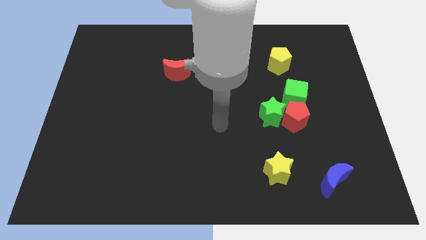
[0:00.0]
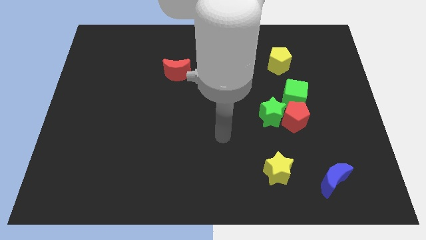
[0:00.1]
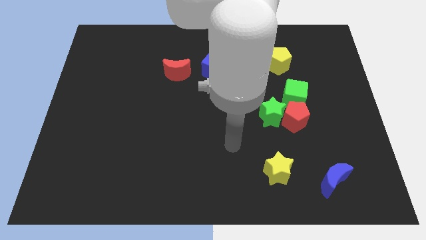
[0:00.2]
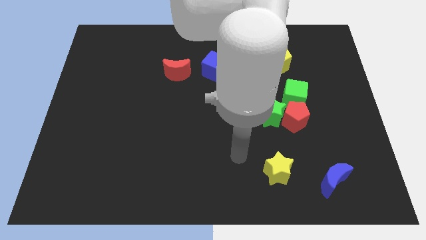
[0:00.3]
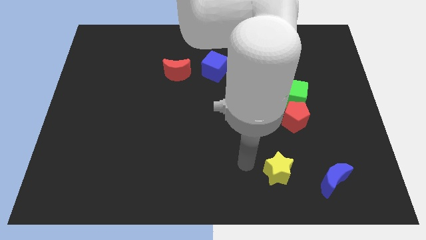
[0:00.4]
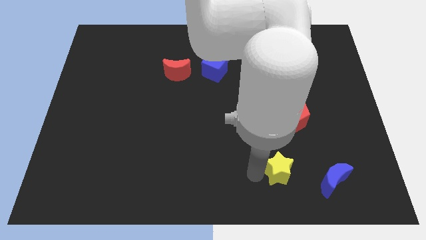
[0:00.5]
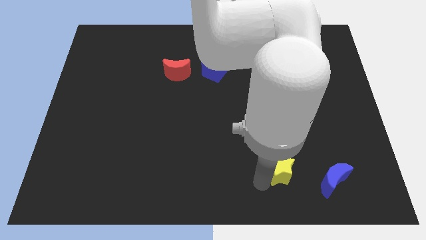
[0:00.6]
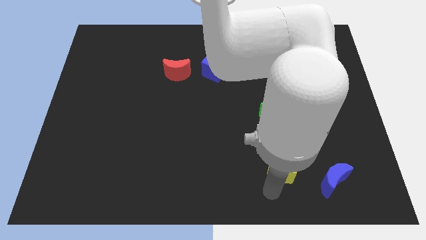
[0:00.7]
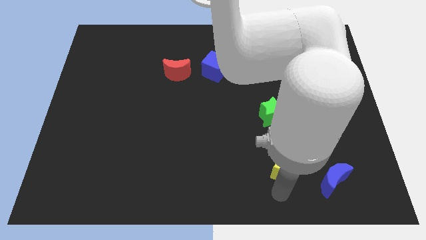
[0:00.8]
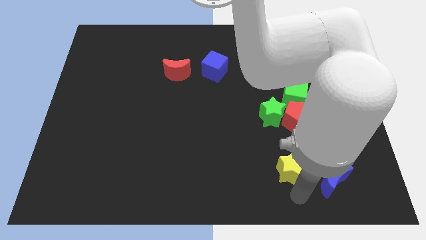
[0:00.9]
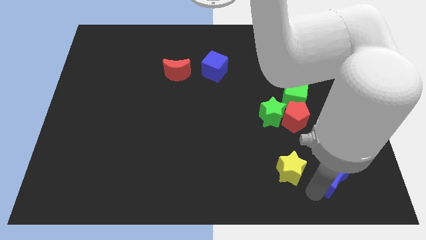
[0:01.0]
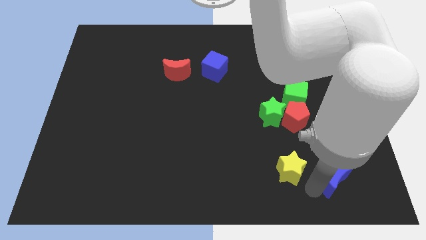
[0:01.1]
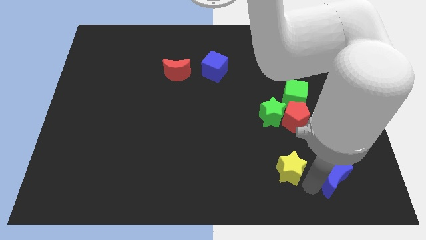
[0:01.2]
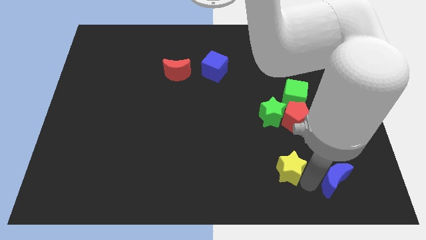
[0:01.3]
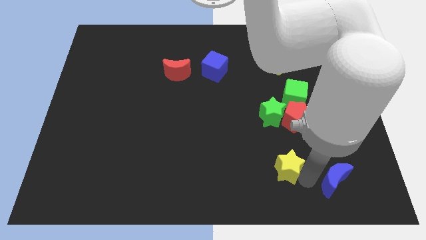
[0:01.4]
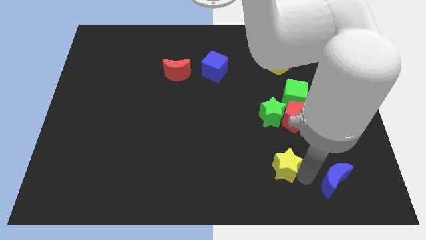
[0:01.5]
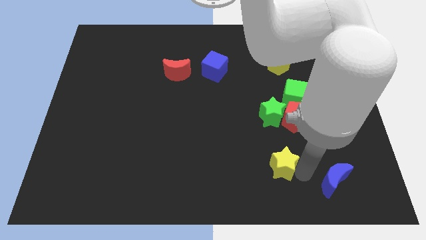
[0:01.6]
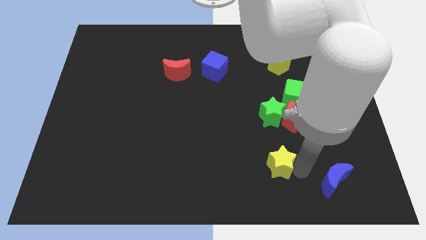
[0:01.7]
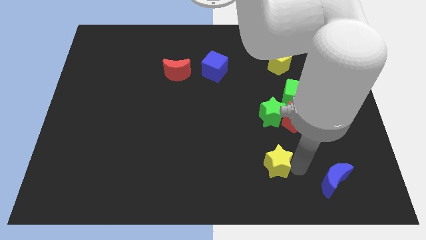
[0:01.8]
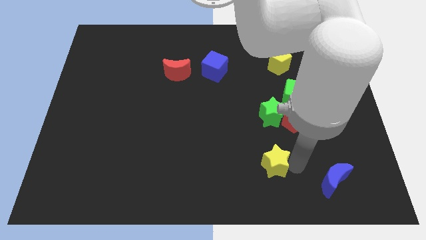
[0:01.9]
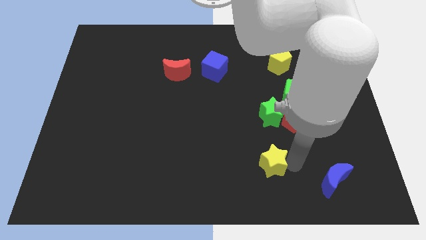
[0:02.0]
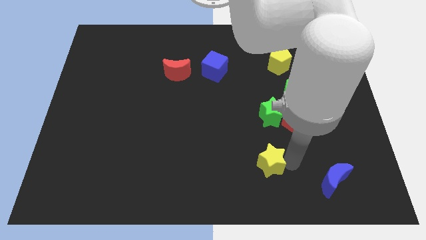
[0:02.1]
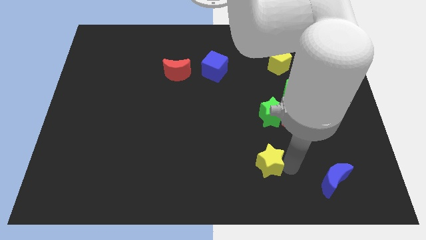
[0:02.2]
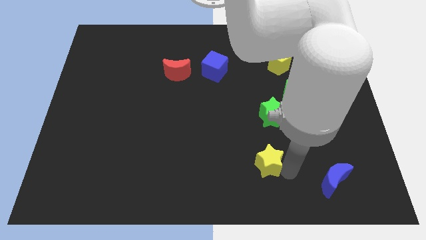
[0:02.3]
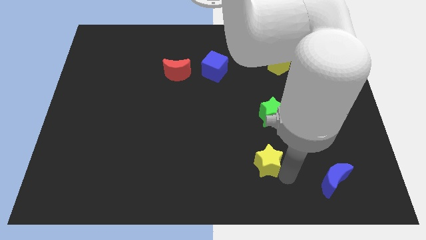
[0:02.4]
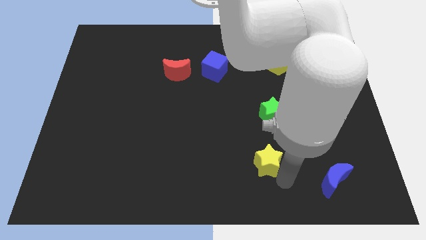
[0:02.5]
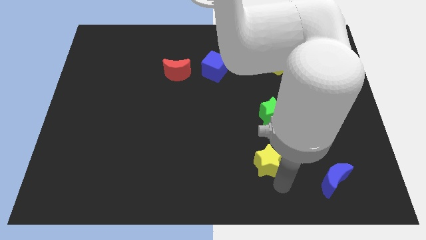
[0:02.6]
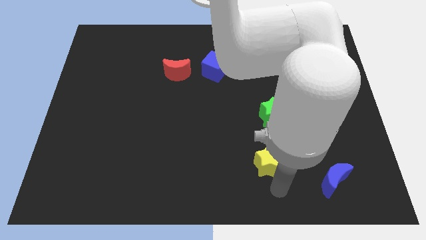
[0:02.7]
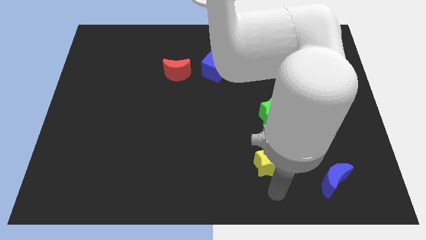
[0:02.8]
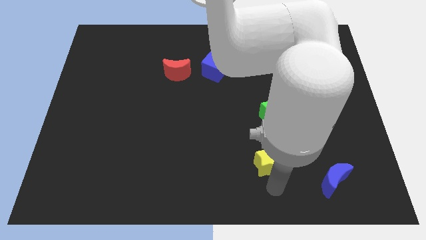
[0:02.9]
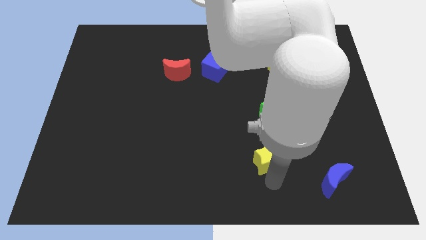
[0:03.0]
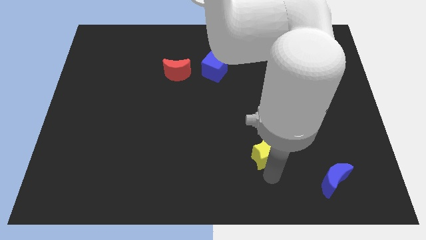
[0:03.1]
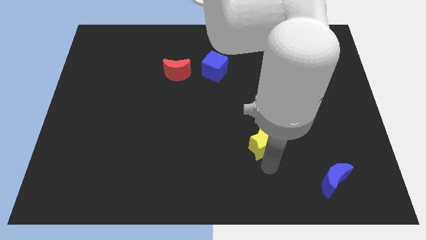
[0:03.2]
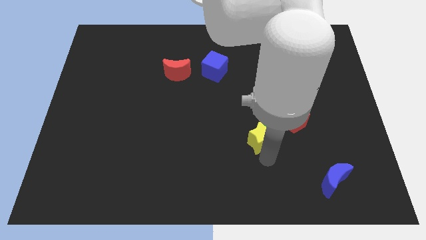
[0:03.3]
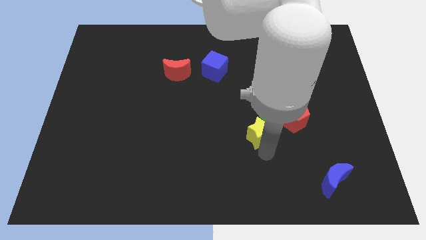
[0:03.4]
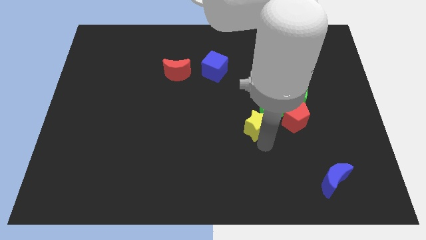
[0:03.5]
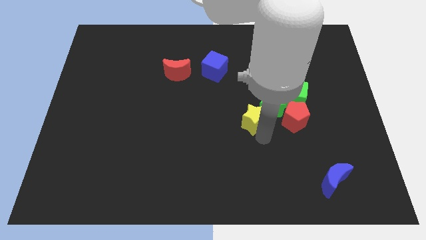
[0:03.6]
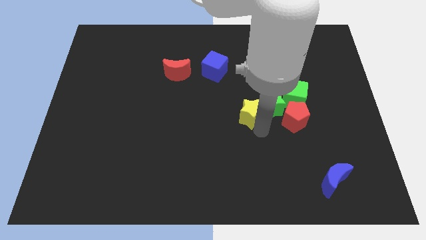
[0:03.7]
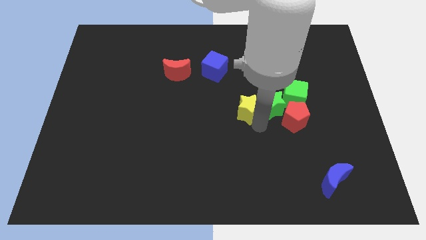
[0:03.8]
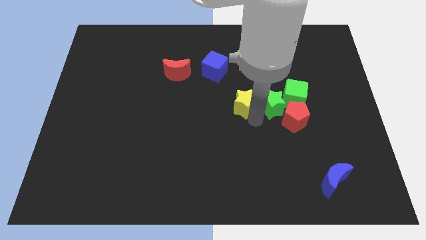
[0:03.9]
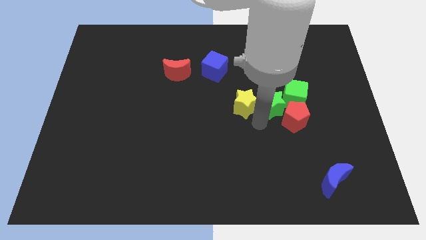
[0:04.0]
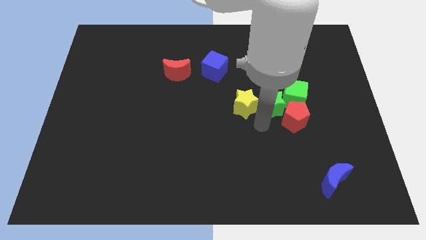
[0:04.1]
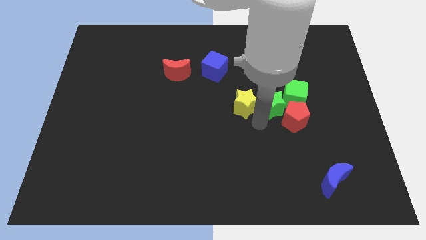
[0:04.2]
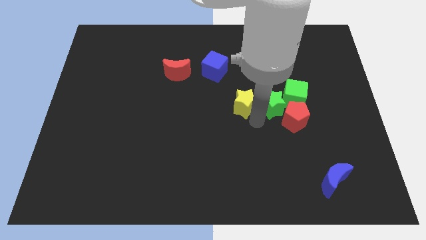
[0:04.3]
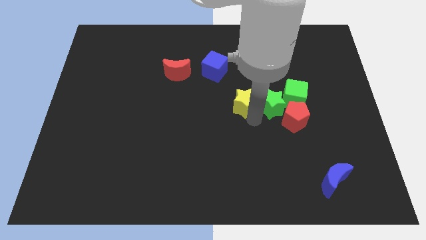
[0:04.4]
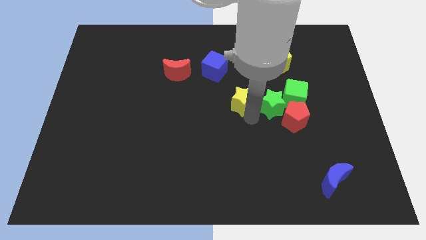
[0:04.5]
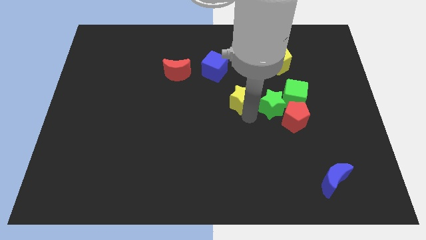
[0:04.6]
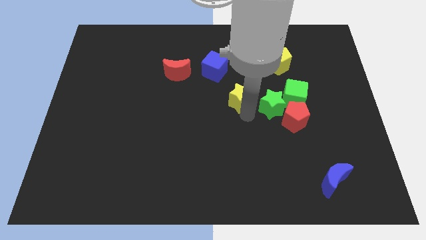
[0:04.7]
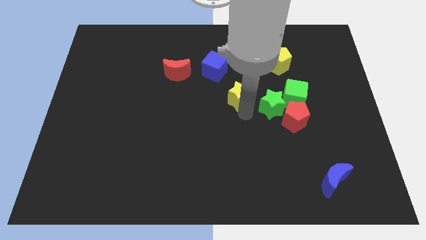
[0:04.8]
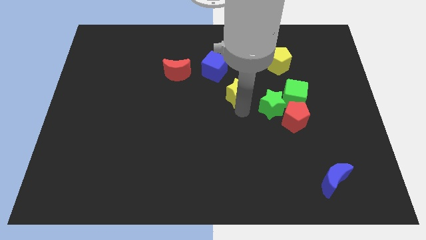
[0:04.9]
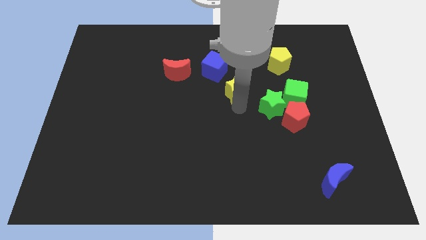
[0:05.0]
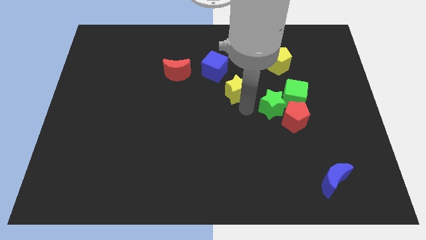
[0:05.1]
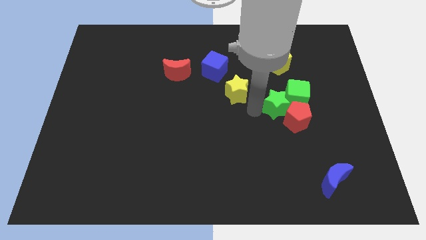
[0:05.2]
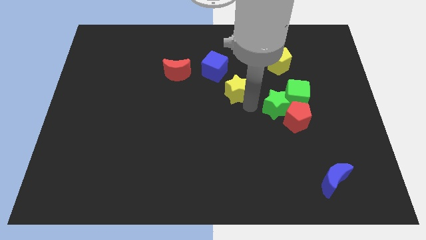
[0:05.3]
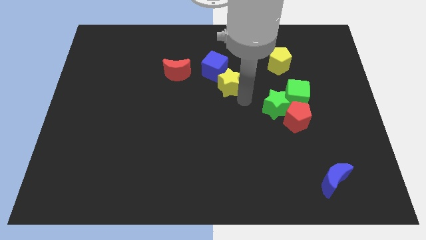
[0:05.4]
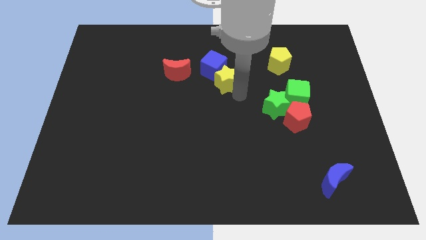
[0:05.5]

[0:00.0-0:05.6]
move the yellow star next to the blue cube

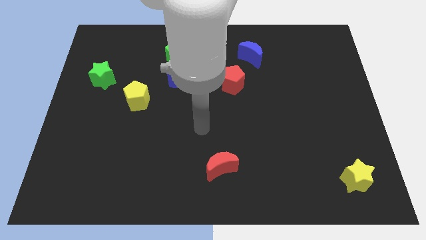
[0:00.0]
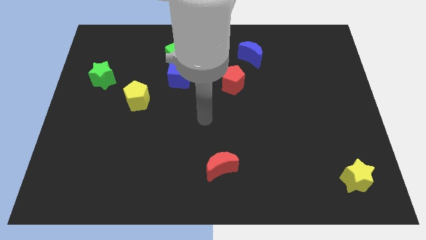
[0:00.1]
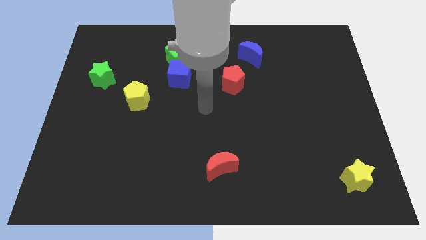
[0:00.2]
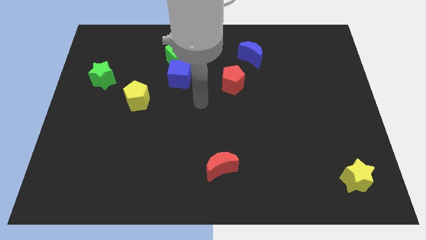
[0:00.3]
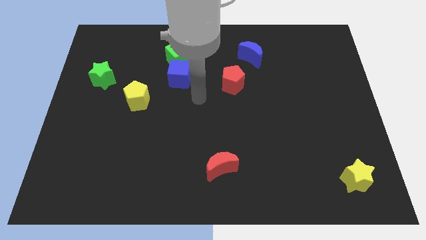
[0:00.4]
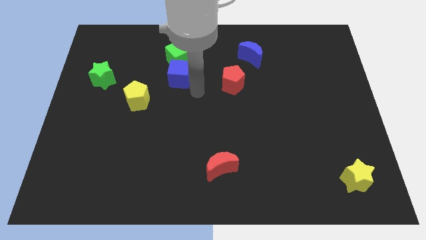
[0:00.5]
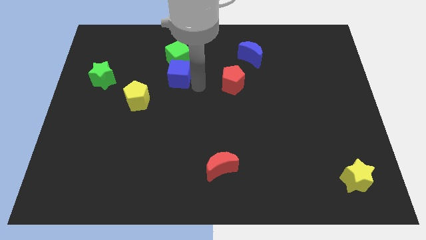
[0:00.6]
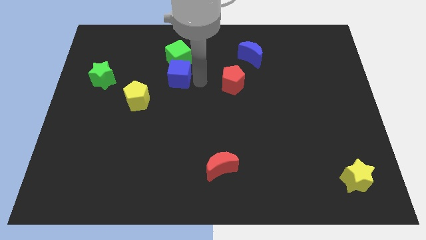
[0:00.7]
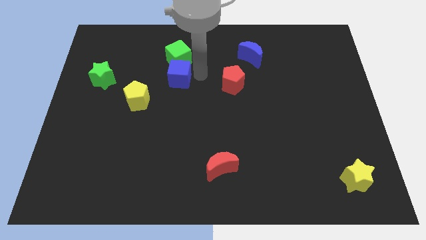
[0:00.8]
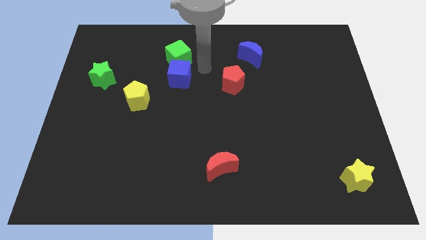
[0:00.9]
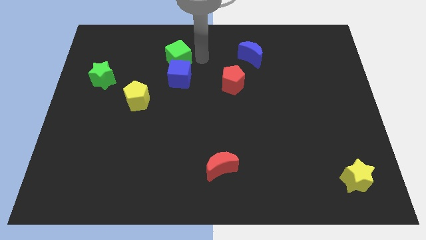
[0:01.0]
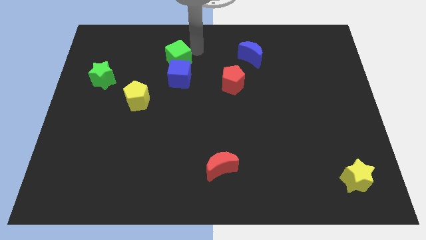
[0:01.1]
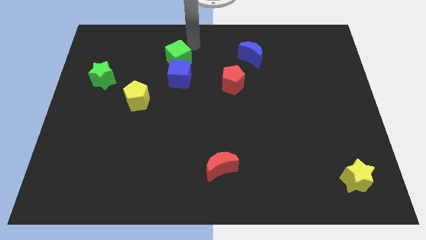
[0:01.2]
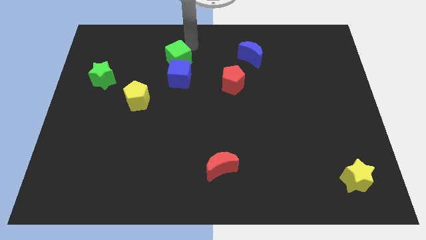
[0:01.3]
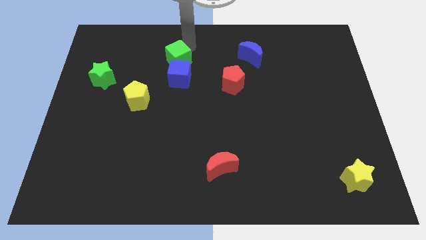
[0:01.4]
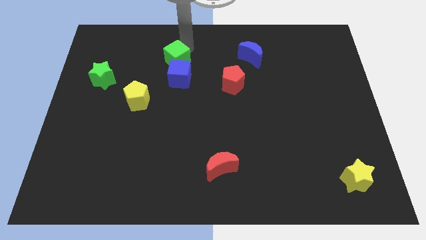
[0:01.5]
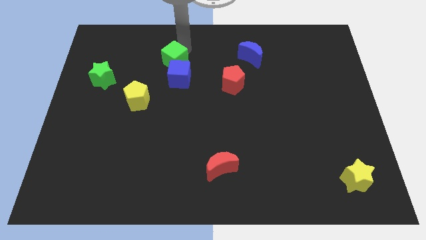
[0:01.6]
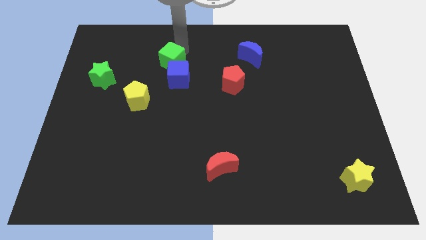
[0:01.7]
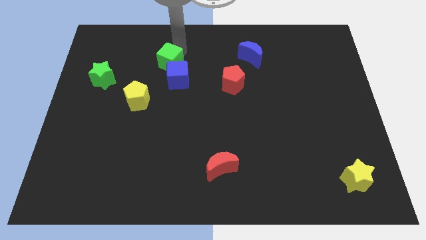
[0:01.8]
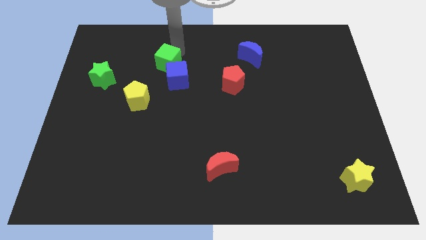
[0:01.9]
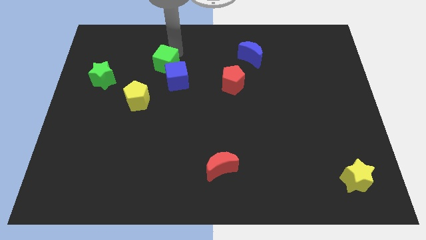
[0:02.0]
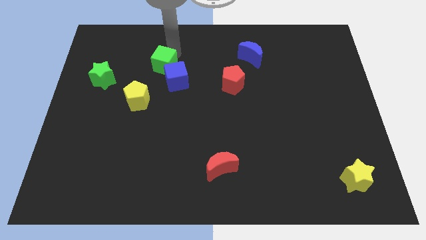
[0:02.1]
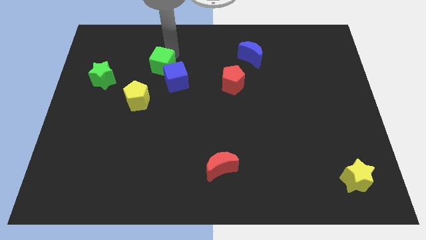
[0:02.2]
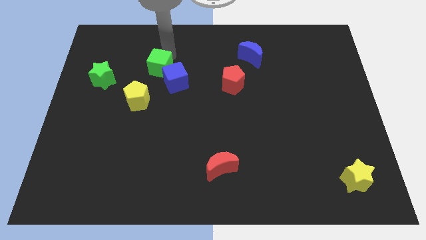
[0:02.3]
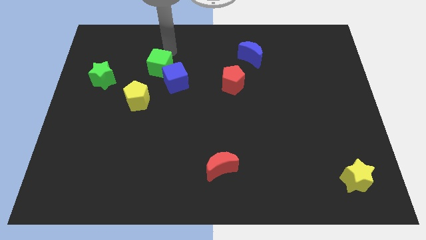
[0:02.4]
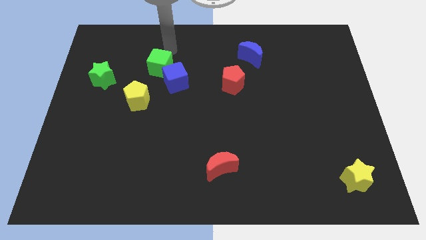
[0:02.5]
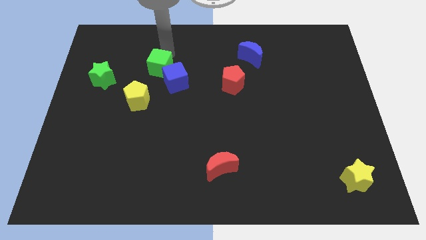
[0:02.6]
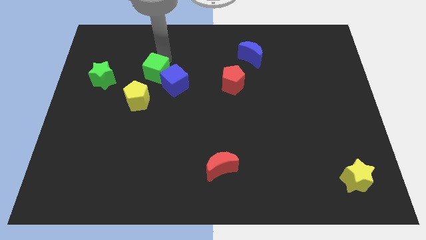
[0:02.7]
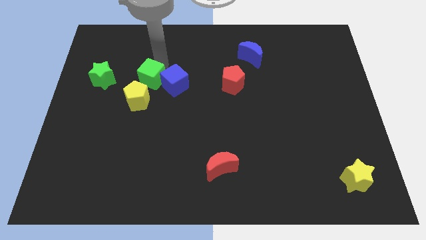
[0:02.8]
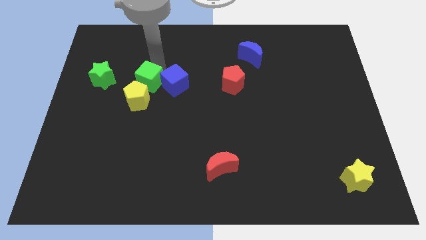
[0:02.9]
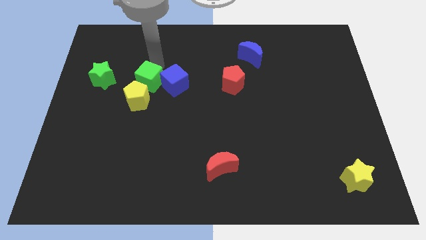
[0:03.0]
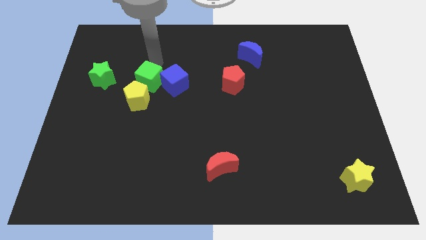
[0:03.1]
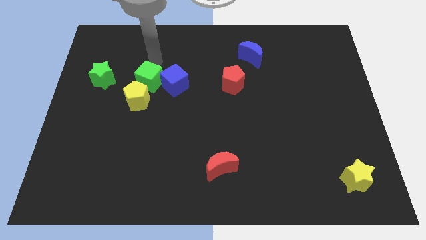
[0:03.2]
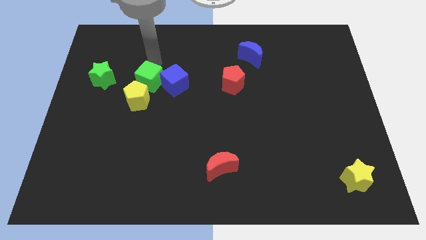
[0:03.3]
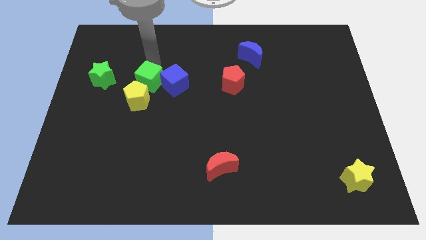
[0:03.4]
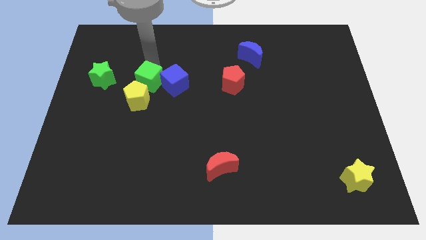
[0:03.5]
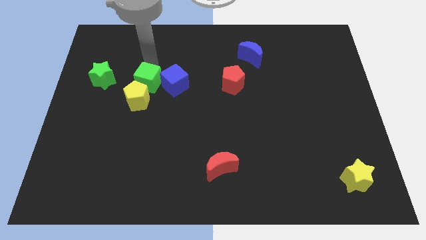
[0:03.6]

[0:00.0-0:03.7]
slide the green cube towards the yellow pentagon
